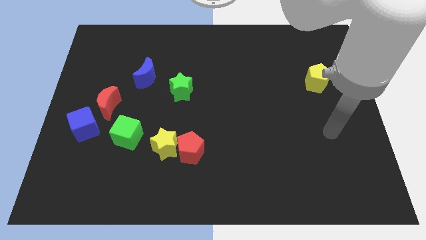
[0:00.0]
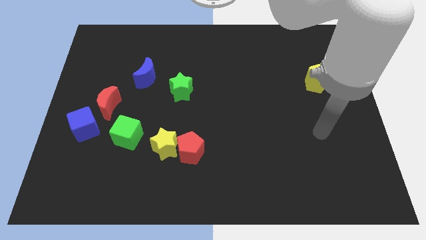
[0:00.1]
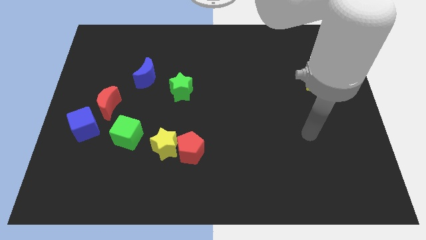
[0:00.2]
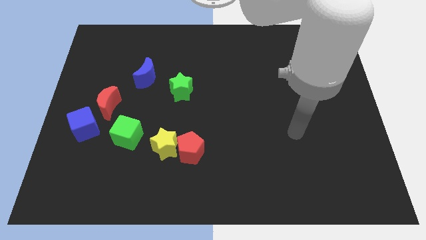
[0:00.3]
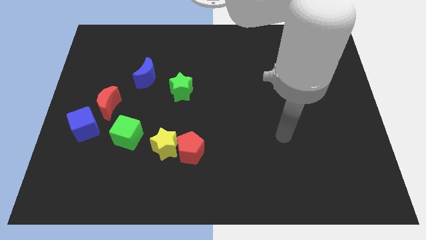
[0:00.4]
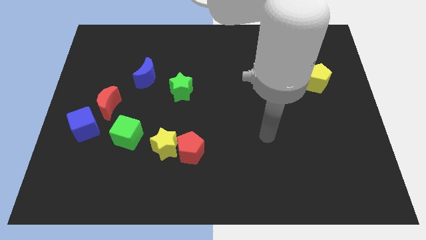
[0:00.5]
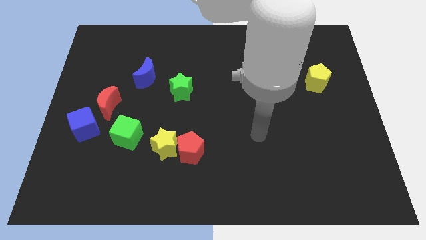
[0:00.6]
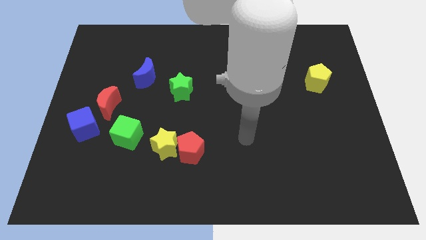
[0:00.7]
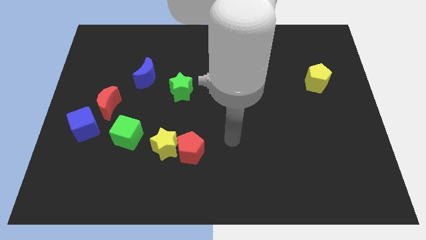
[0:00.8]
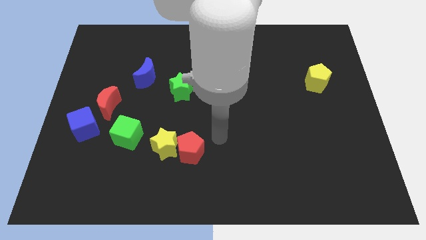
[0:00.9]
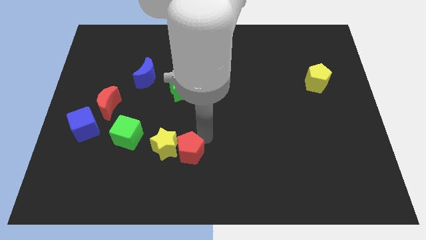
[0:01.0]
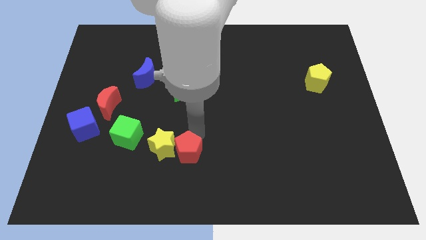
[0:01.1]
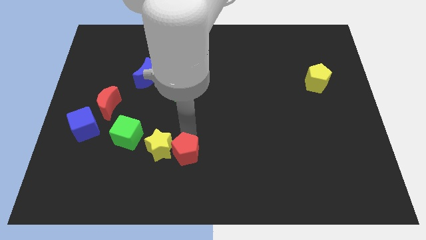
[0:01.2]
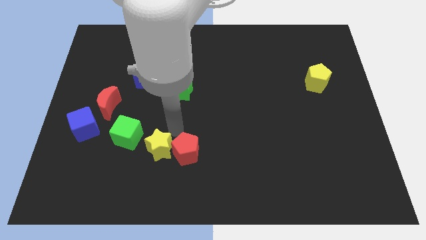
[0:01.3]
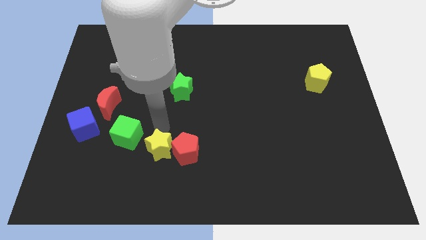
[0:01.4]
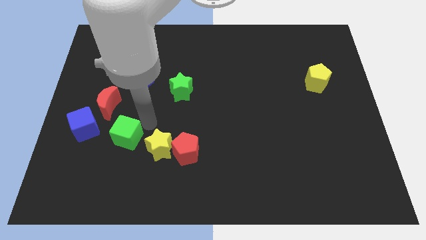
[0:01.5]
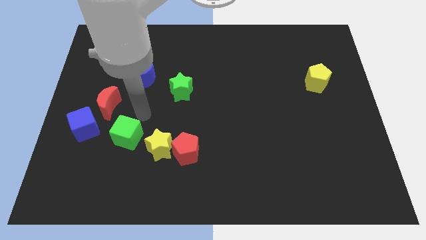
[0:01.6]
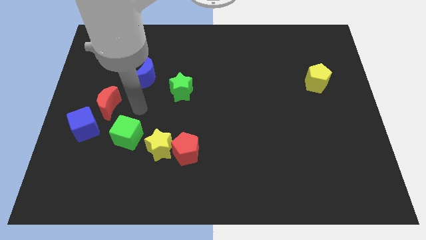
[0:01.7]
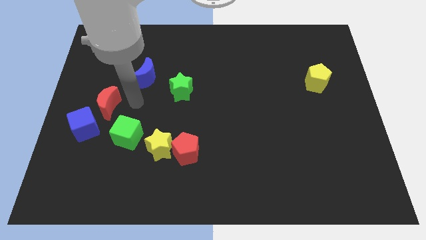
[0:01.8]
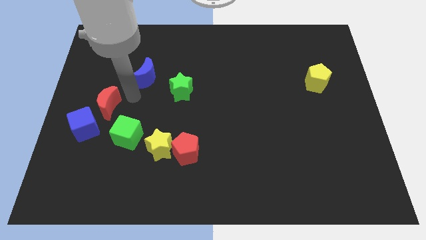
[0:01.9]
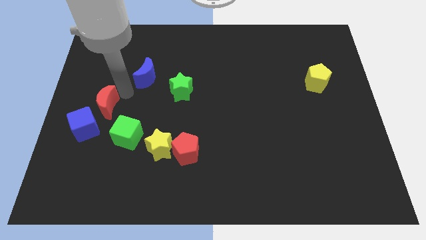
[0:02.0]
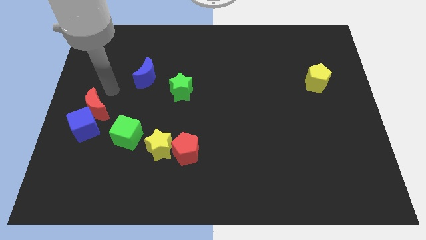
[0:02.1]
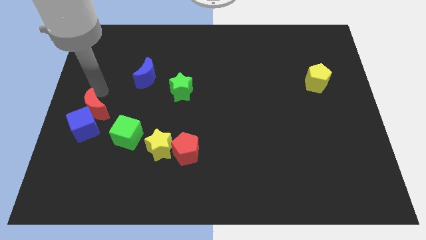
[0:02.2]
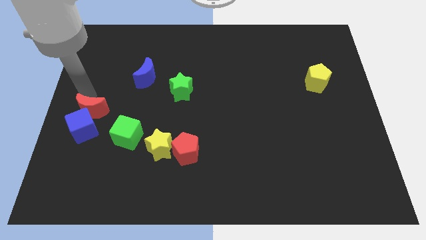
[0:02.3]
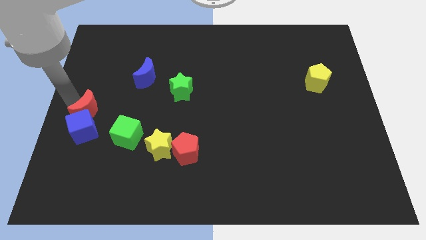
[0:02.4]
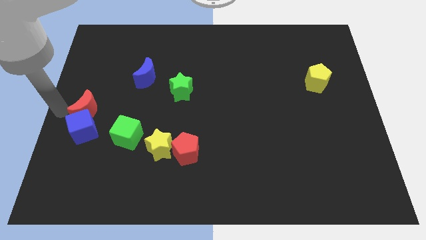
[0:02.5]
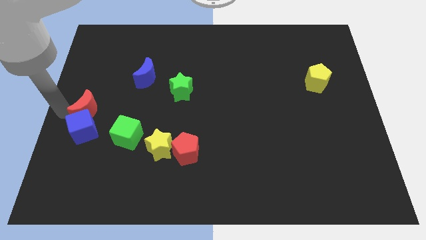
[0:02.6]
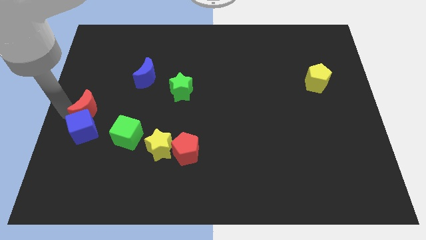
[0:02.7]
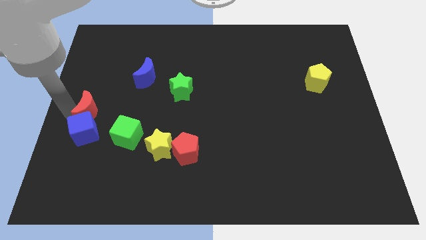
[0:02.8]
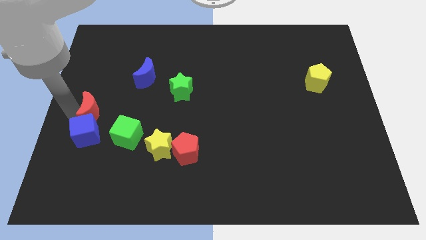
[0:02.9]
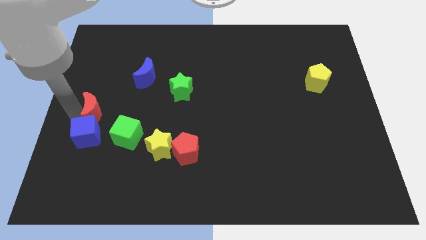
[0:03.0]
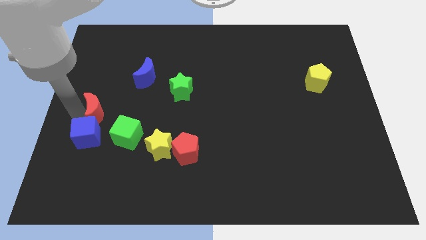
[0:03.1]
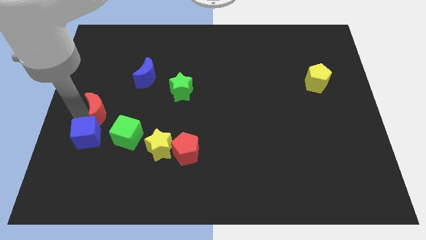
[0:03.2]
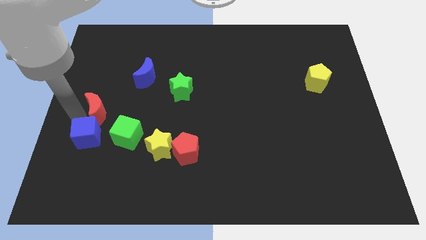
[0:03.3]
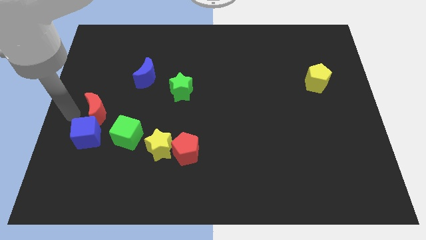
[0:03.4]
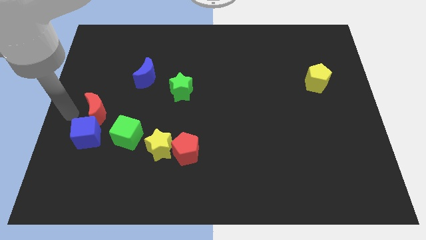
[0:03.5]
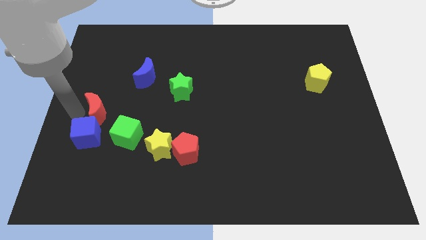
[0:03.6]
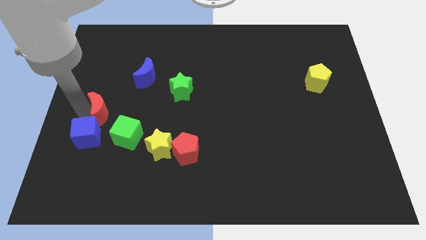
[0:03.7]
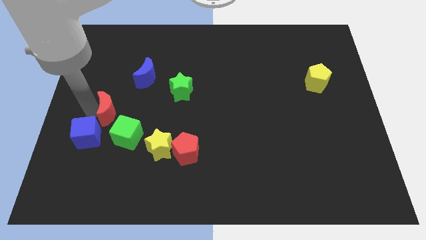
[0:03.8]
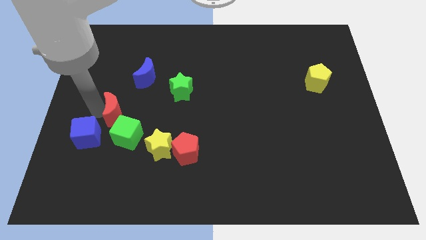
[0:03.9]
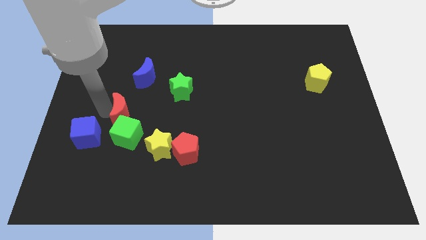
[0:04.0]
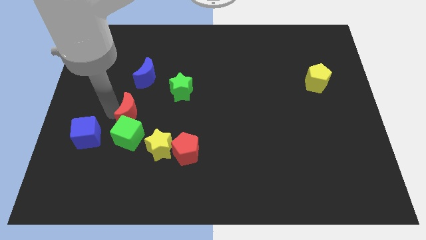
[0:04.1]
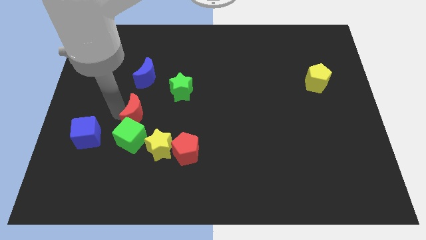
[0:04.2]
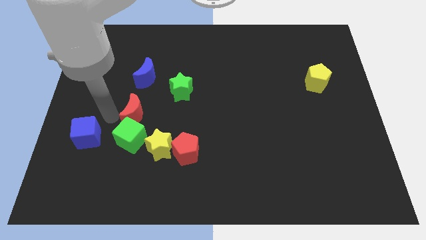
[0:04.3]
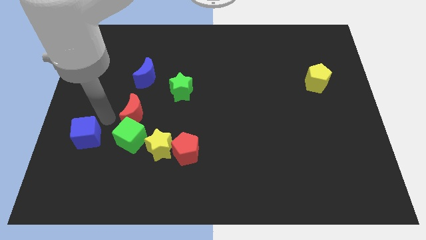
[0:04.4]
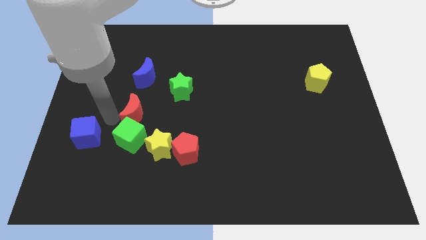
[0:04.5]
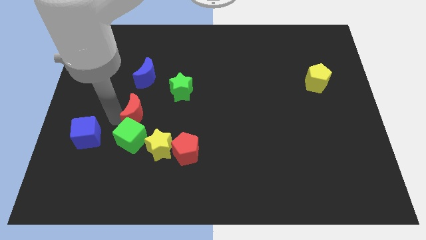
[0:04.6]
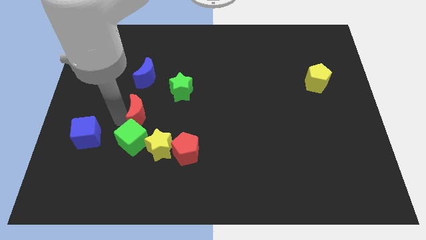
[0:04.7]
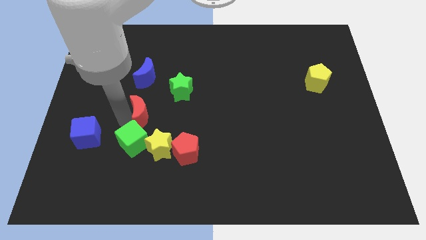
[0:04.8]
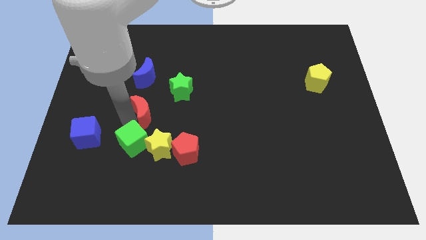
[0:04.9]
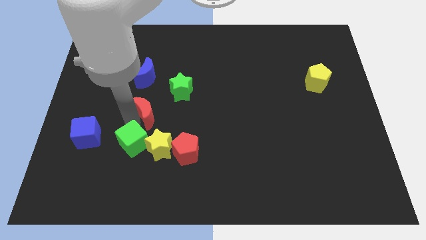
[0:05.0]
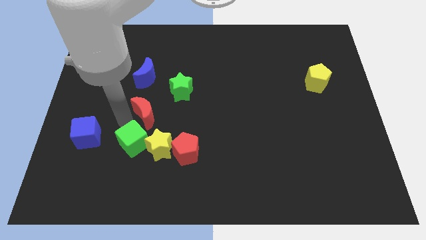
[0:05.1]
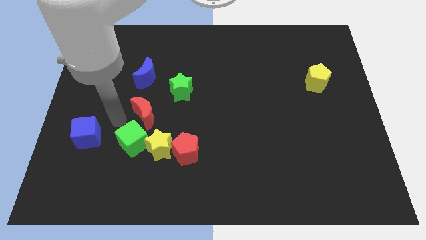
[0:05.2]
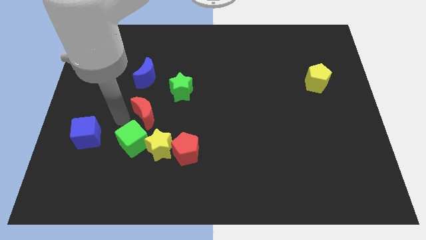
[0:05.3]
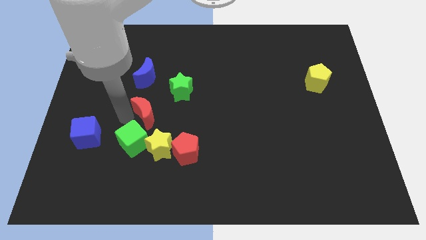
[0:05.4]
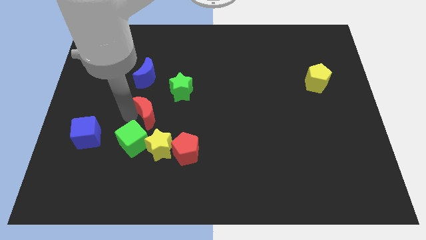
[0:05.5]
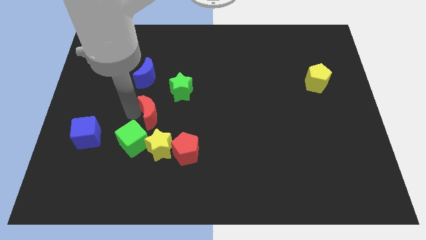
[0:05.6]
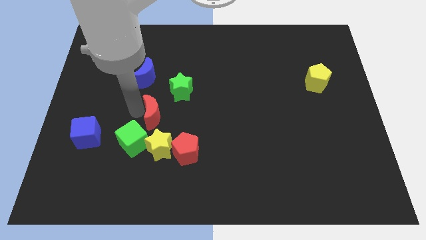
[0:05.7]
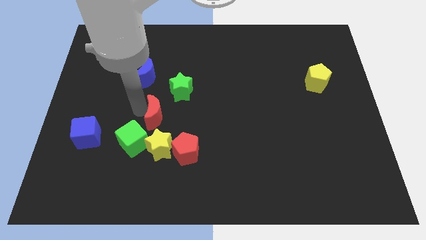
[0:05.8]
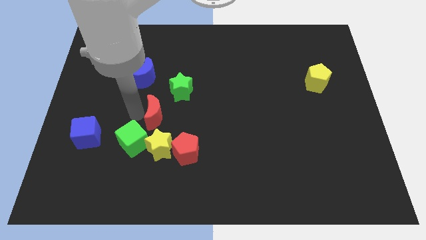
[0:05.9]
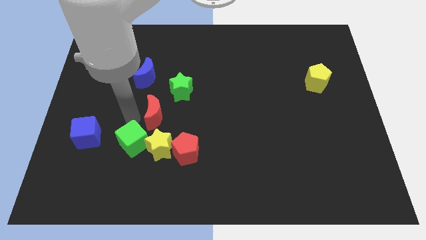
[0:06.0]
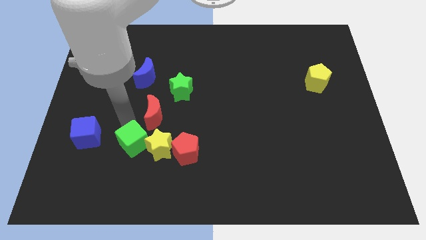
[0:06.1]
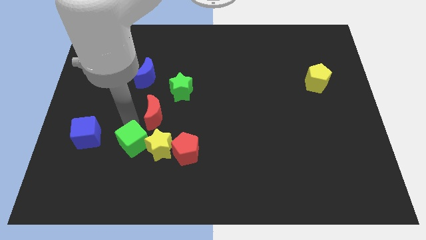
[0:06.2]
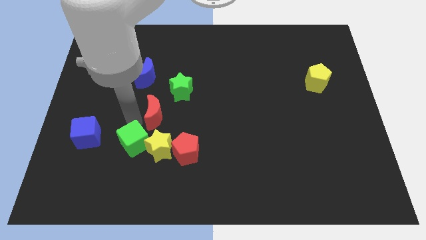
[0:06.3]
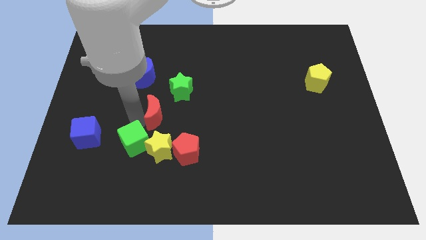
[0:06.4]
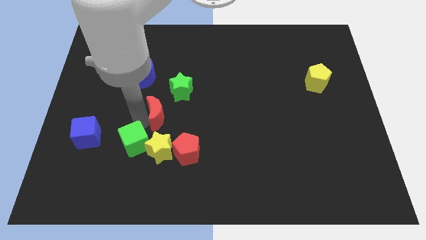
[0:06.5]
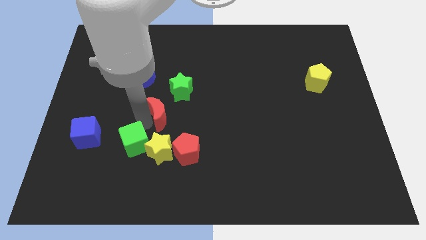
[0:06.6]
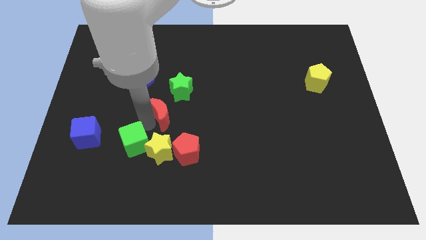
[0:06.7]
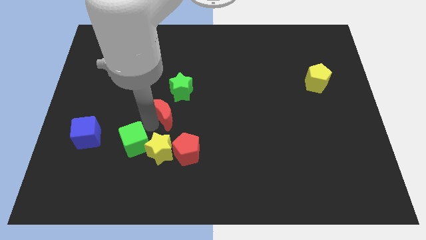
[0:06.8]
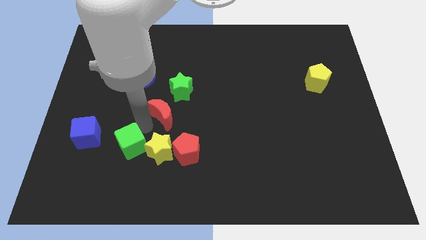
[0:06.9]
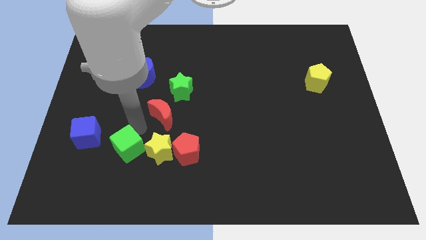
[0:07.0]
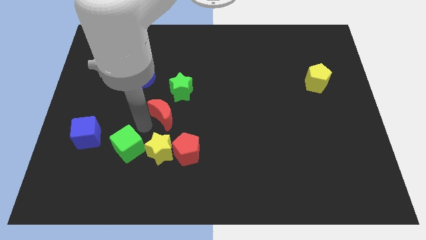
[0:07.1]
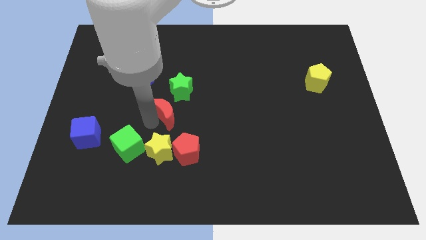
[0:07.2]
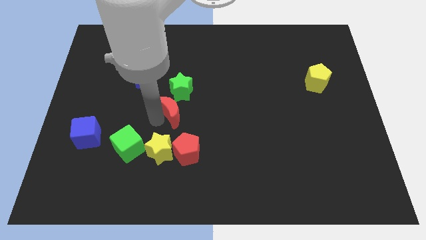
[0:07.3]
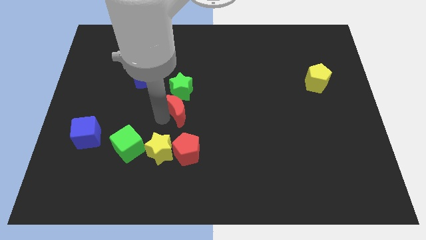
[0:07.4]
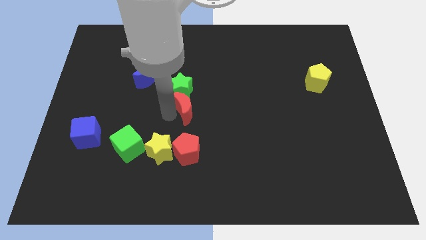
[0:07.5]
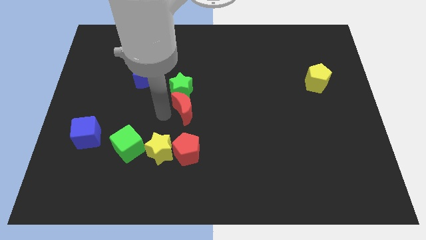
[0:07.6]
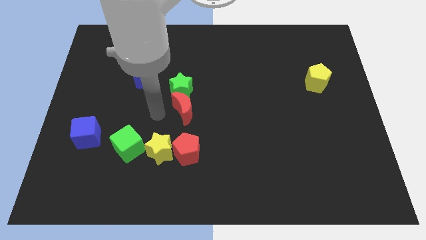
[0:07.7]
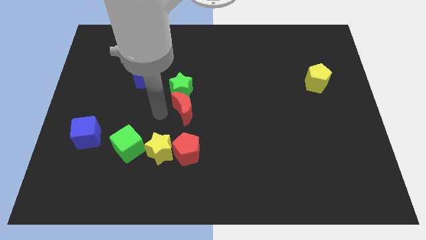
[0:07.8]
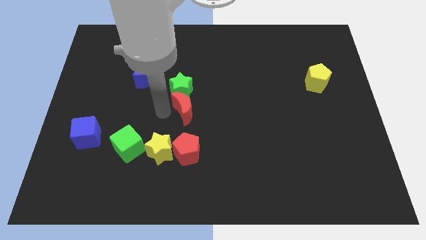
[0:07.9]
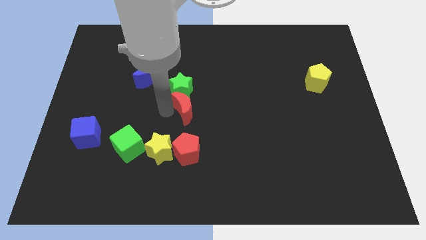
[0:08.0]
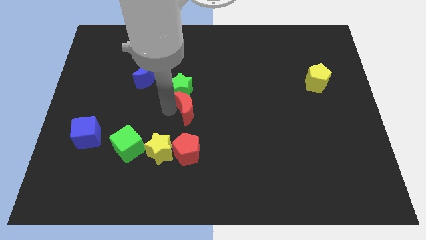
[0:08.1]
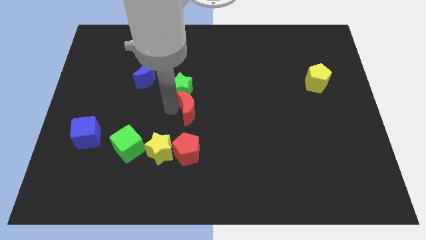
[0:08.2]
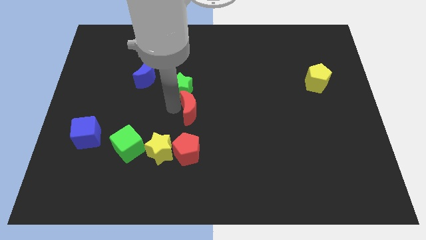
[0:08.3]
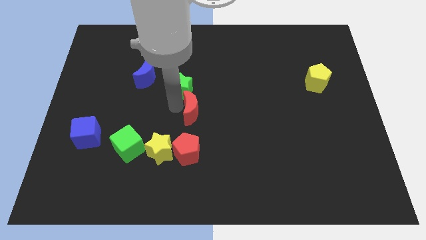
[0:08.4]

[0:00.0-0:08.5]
push the red moon to the right
